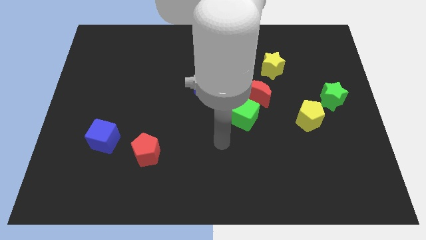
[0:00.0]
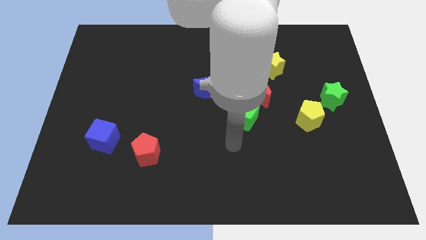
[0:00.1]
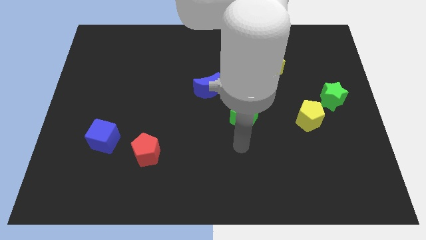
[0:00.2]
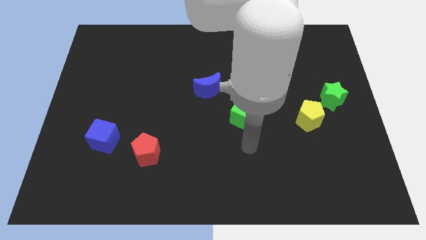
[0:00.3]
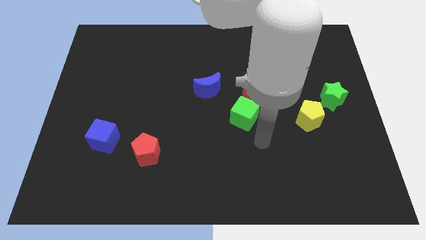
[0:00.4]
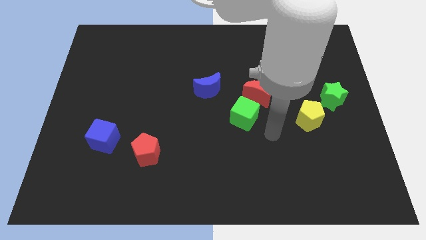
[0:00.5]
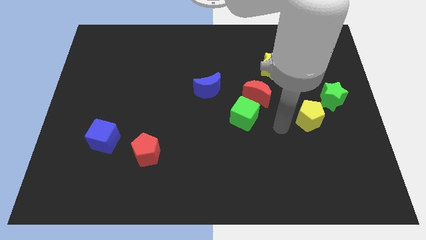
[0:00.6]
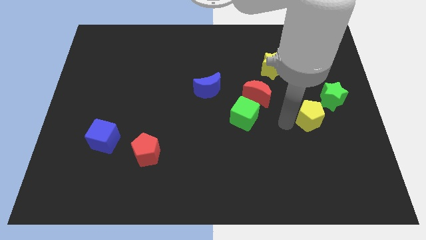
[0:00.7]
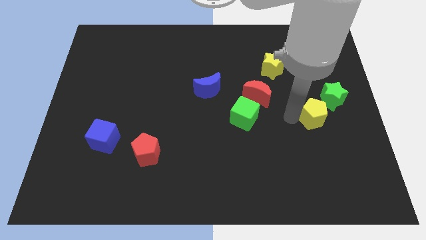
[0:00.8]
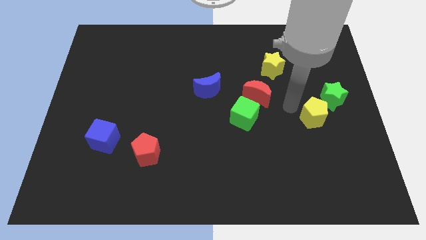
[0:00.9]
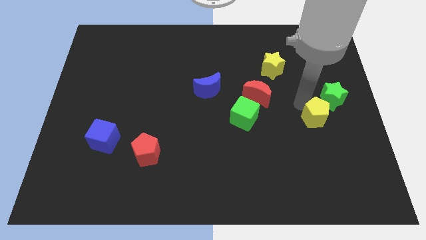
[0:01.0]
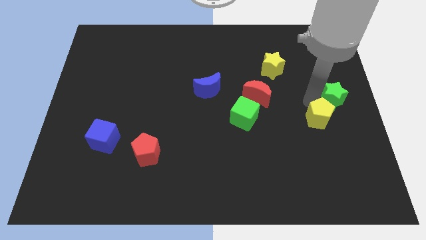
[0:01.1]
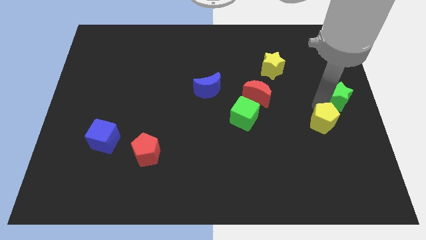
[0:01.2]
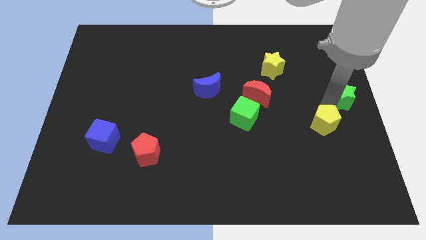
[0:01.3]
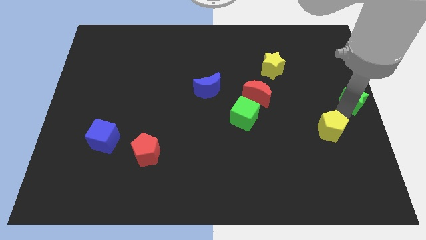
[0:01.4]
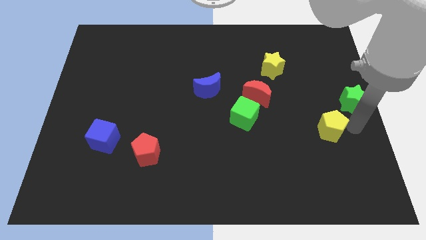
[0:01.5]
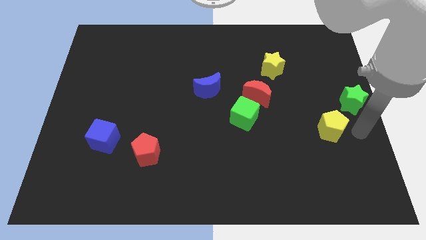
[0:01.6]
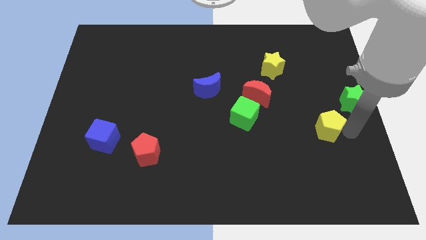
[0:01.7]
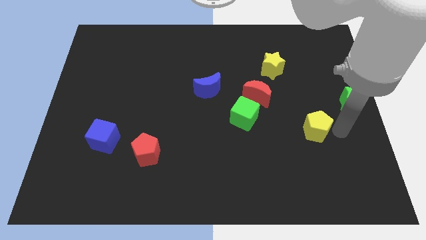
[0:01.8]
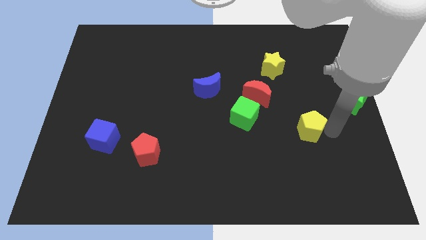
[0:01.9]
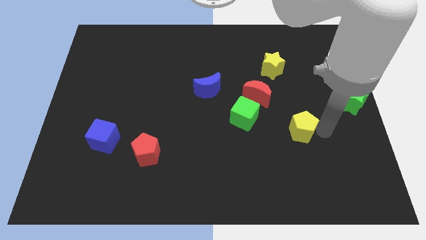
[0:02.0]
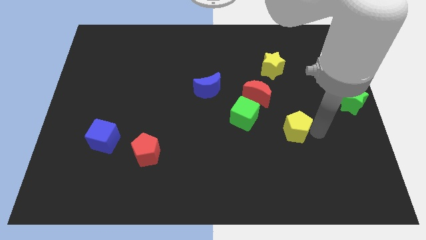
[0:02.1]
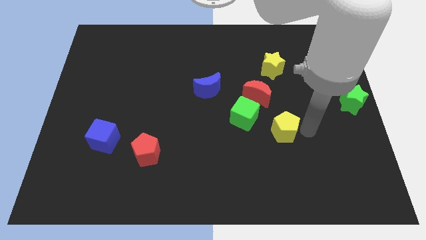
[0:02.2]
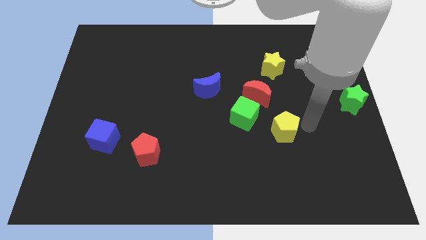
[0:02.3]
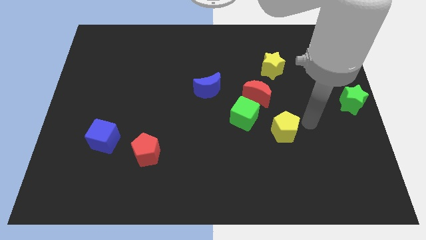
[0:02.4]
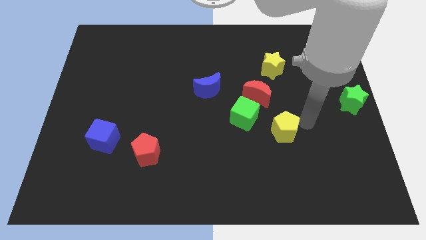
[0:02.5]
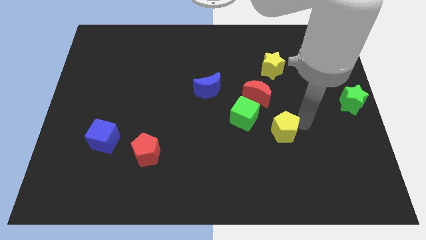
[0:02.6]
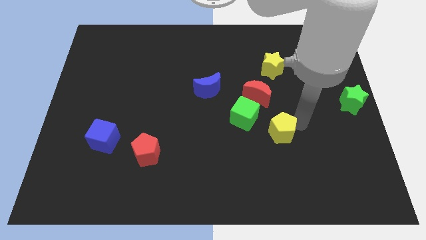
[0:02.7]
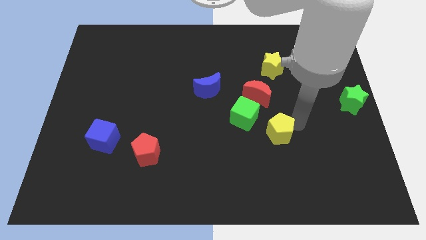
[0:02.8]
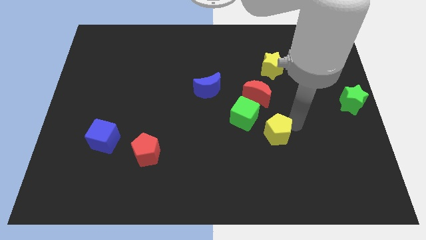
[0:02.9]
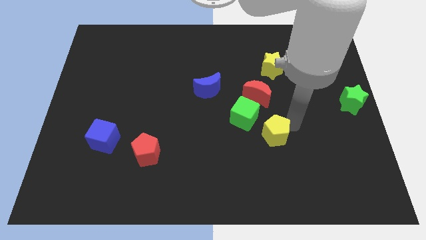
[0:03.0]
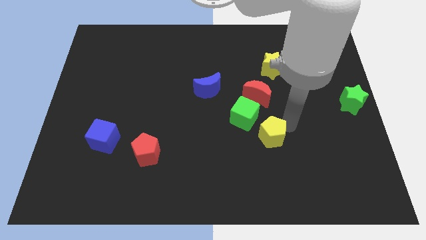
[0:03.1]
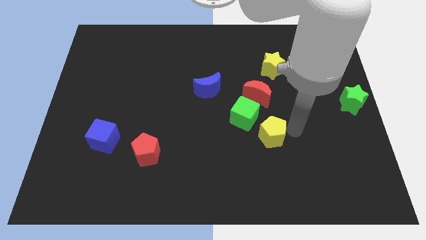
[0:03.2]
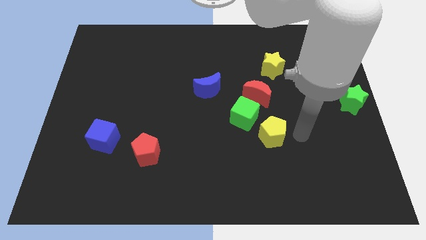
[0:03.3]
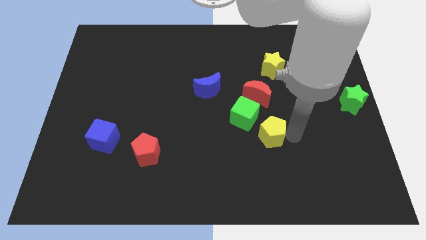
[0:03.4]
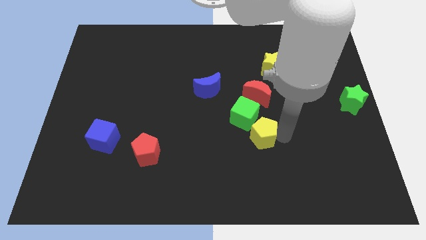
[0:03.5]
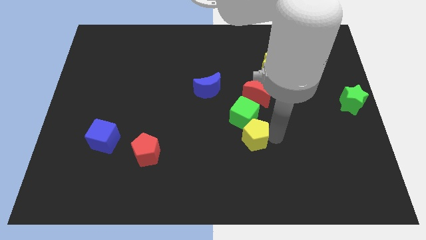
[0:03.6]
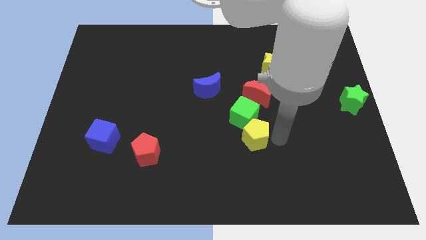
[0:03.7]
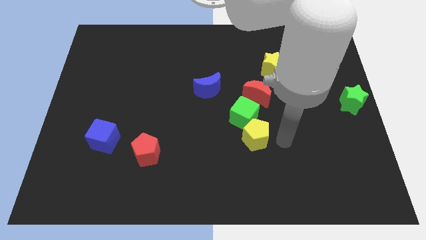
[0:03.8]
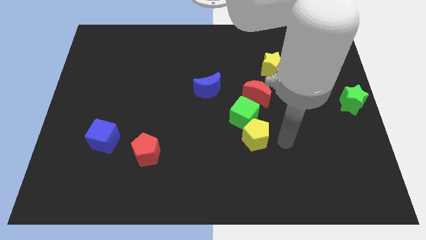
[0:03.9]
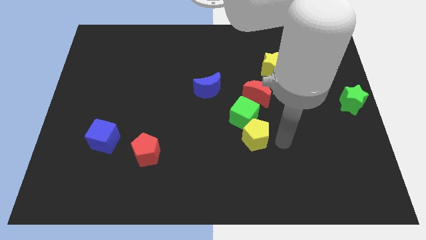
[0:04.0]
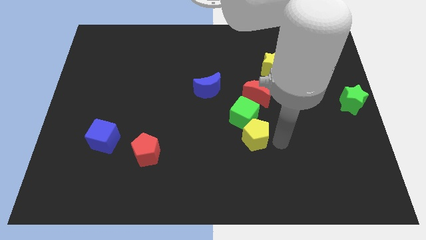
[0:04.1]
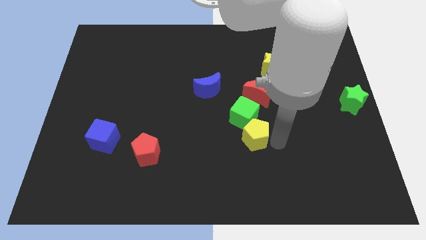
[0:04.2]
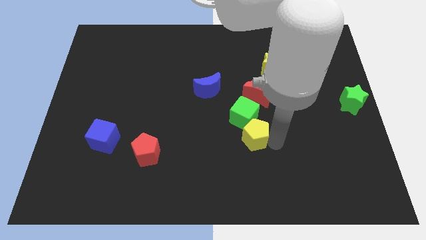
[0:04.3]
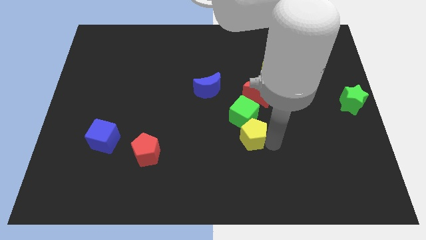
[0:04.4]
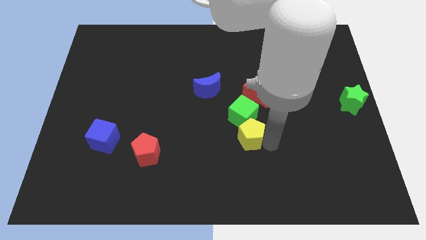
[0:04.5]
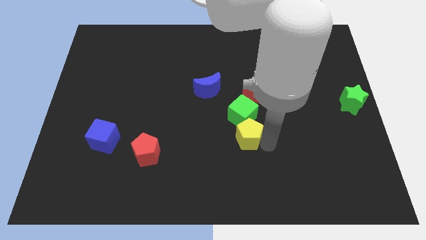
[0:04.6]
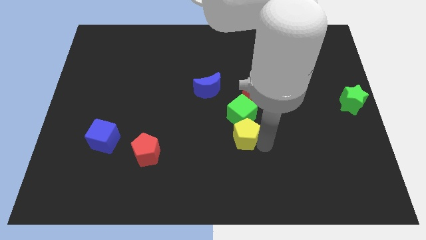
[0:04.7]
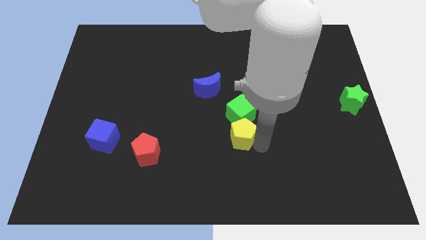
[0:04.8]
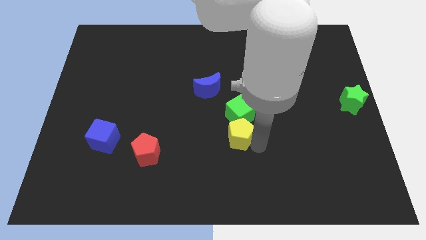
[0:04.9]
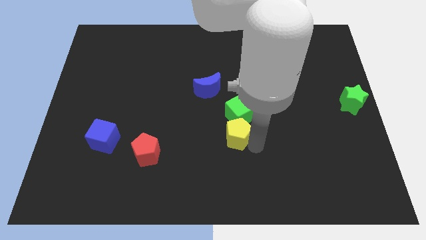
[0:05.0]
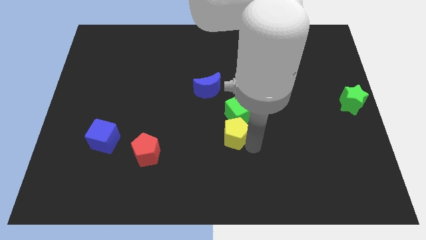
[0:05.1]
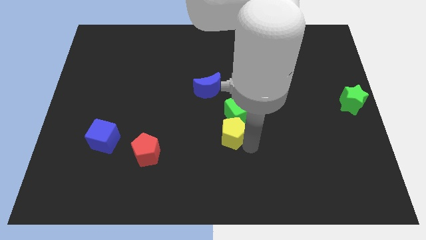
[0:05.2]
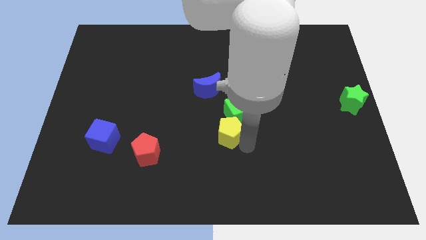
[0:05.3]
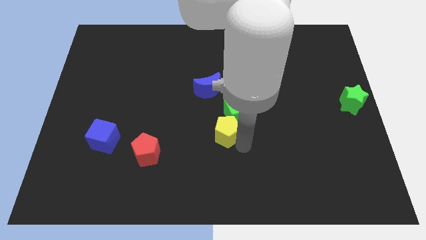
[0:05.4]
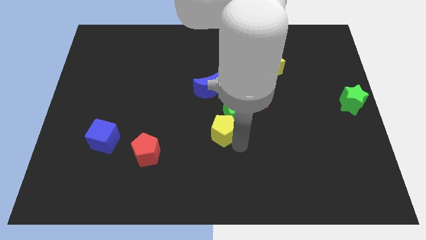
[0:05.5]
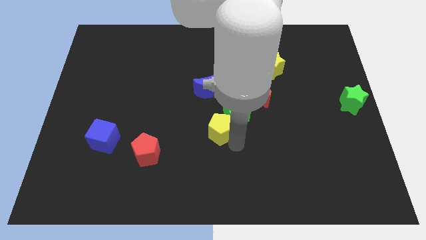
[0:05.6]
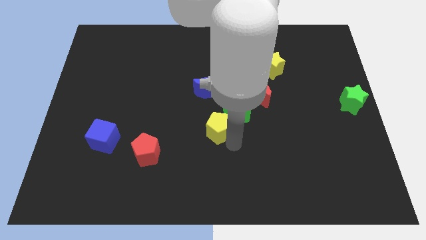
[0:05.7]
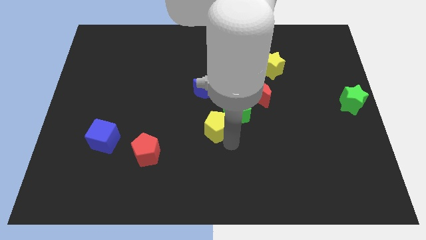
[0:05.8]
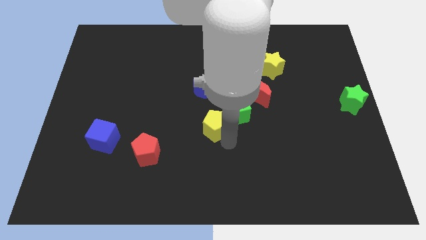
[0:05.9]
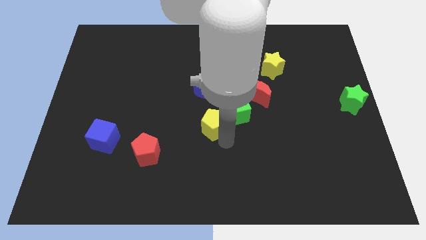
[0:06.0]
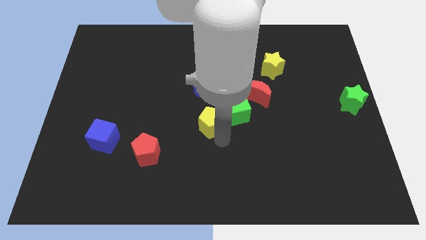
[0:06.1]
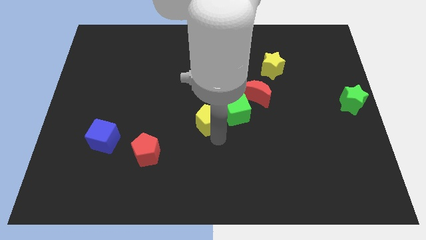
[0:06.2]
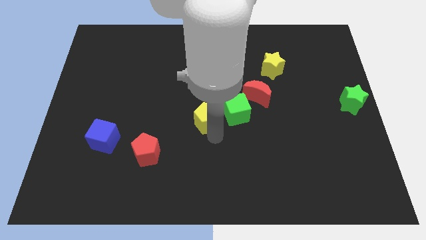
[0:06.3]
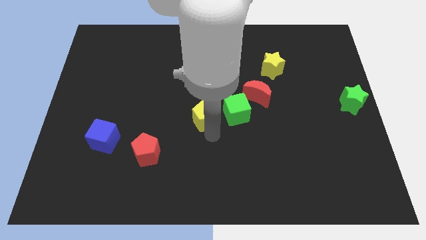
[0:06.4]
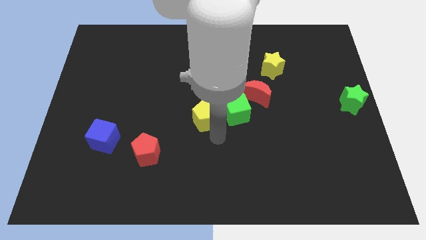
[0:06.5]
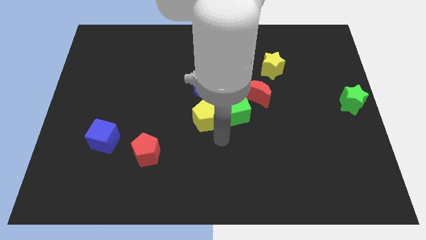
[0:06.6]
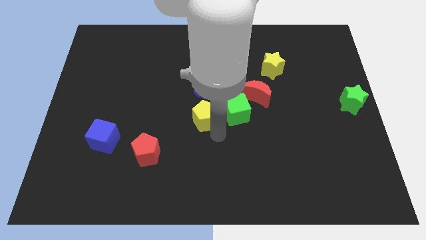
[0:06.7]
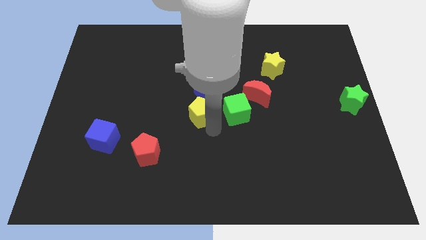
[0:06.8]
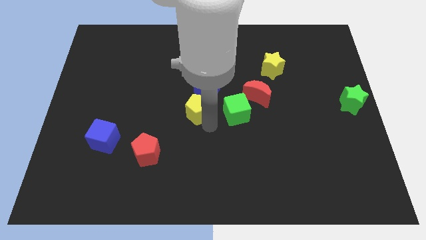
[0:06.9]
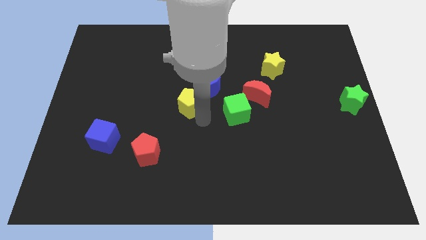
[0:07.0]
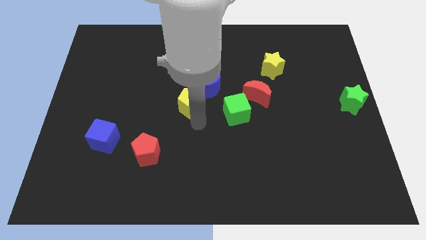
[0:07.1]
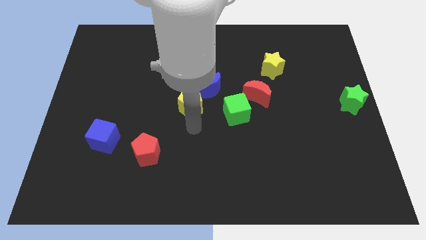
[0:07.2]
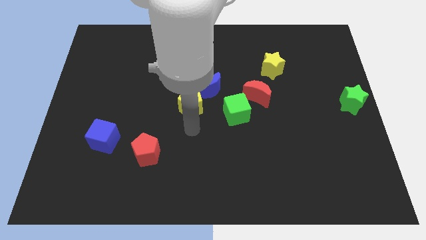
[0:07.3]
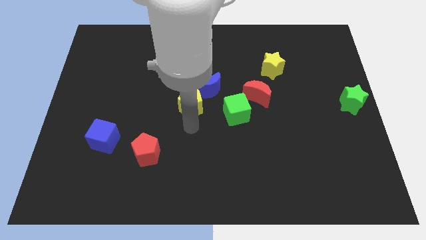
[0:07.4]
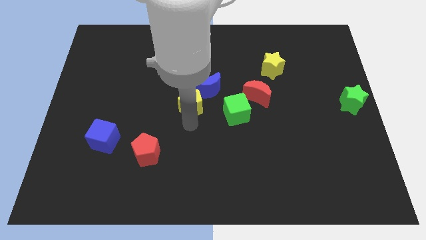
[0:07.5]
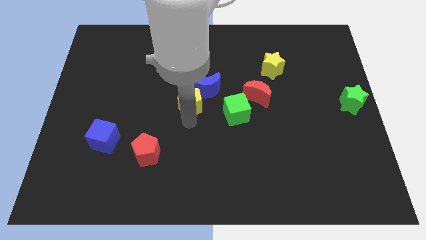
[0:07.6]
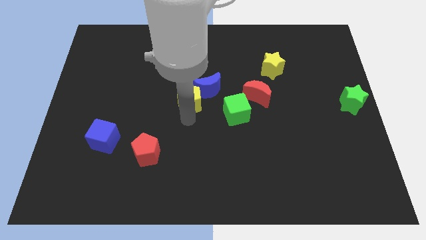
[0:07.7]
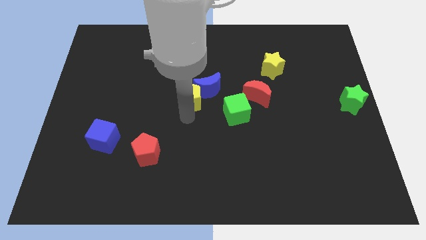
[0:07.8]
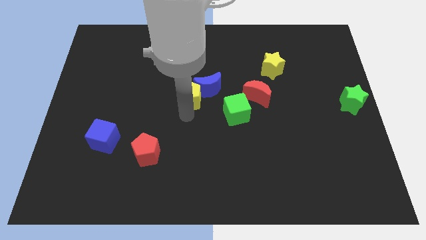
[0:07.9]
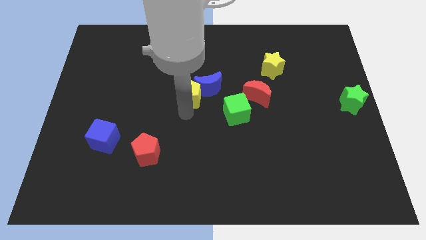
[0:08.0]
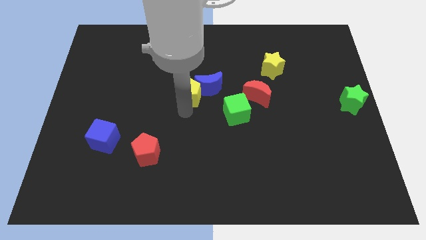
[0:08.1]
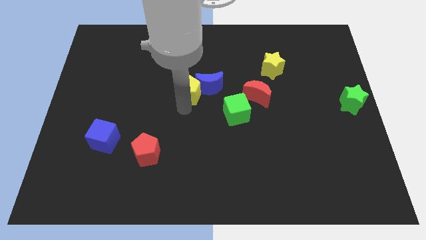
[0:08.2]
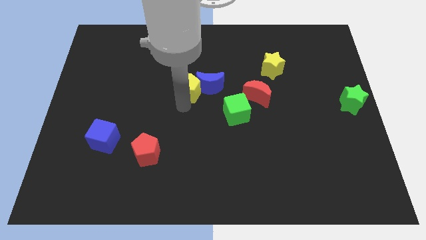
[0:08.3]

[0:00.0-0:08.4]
push the yellow pentagon to the top left of the blue moon
